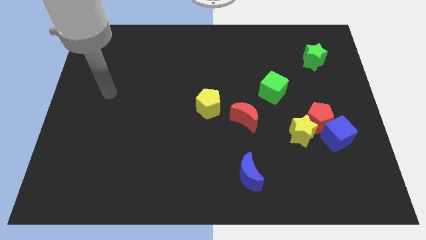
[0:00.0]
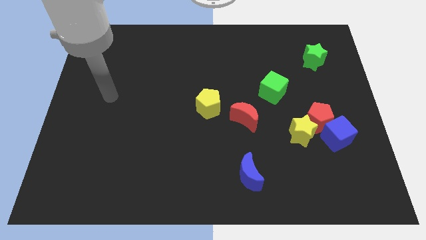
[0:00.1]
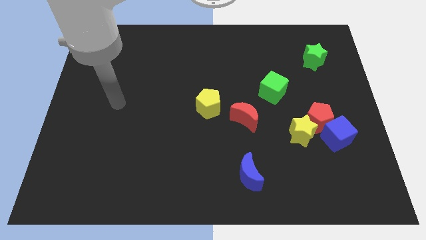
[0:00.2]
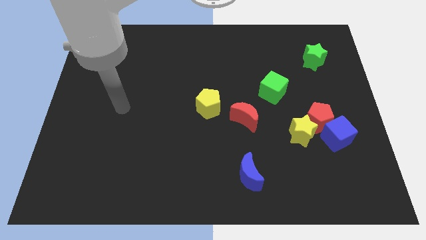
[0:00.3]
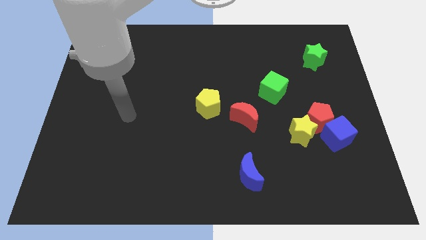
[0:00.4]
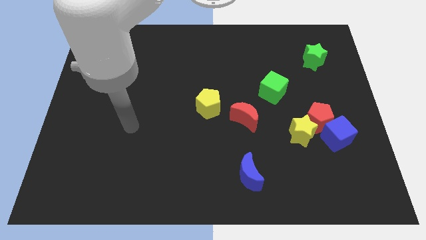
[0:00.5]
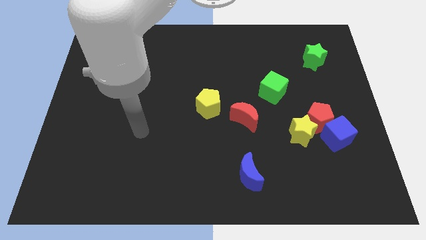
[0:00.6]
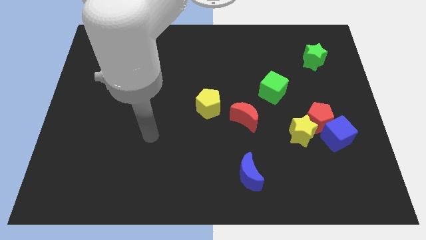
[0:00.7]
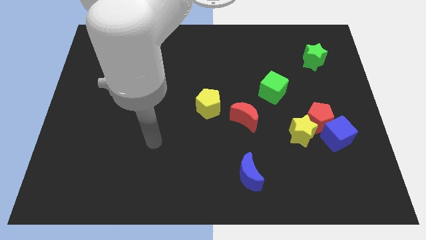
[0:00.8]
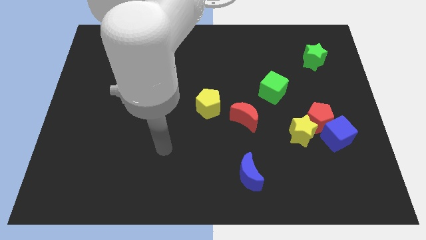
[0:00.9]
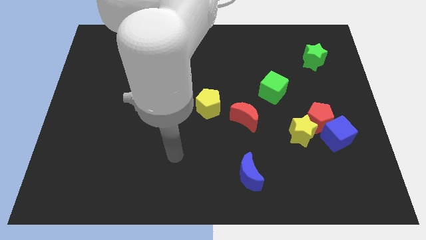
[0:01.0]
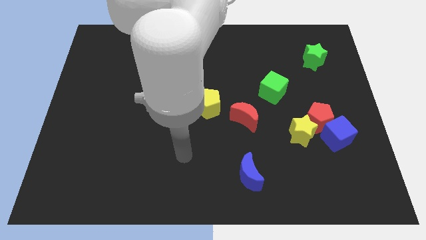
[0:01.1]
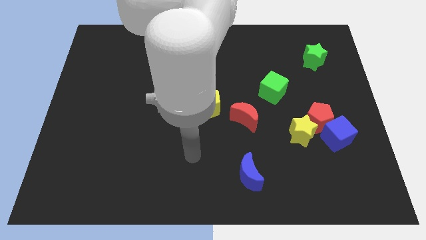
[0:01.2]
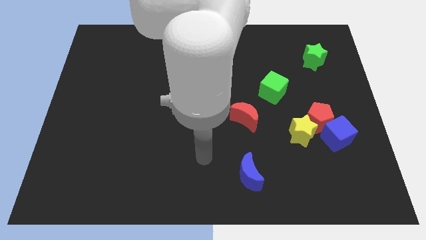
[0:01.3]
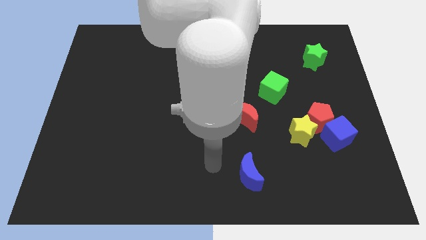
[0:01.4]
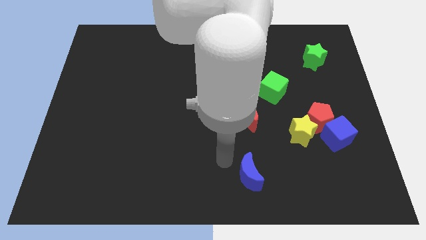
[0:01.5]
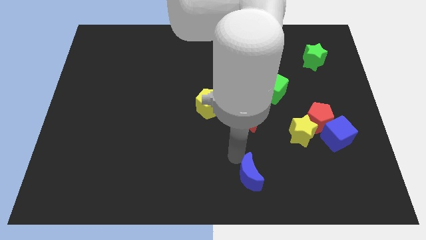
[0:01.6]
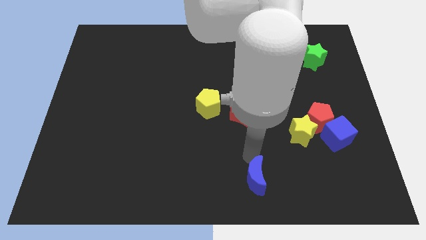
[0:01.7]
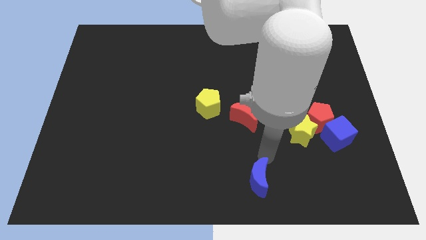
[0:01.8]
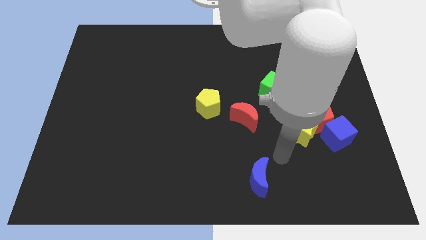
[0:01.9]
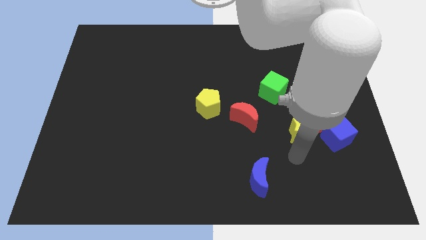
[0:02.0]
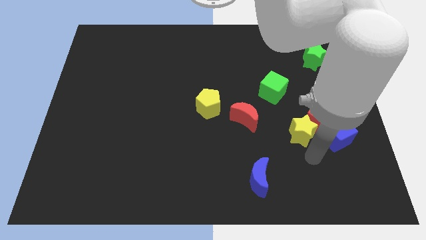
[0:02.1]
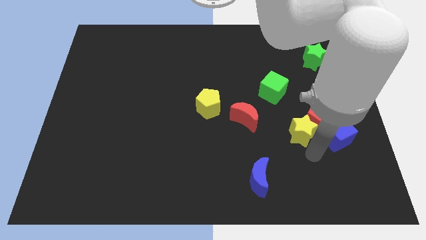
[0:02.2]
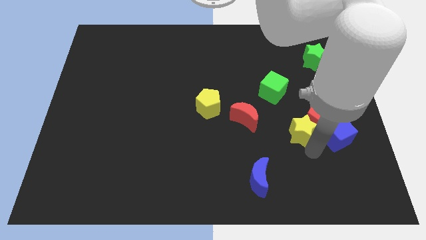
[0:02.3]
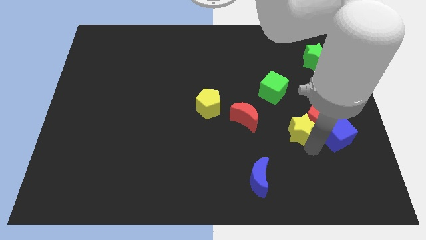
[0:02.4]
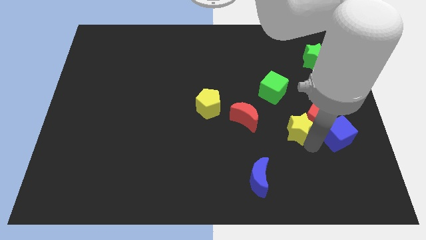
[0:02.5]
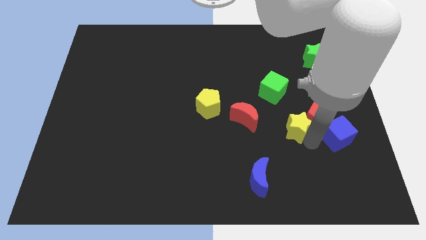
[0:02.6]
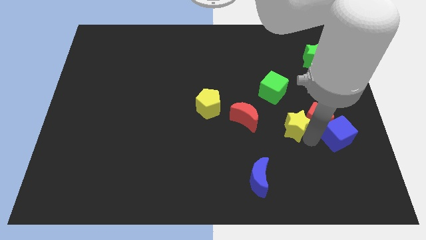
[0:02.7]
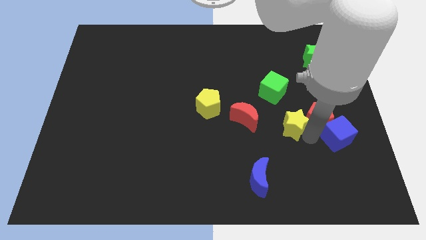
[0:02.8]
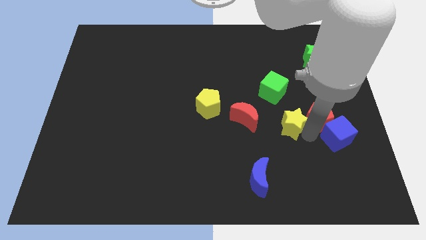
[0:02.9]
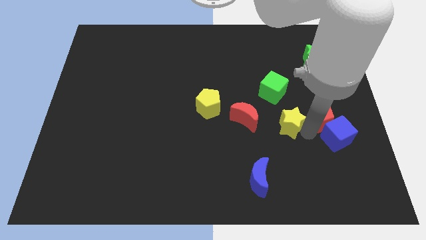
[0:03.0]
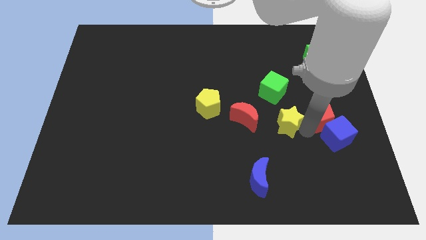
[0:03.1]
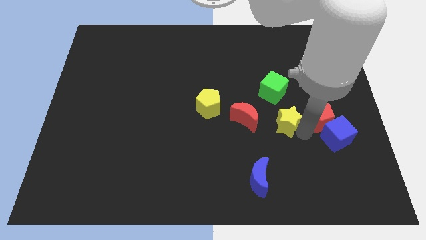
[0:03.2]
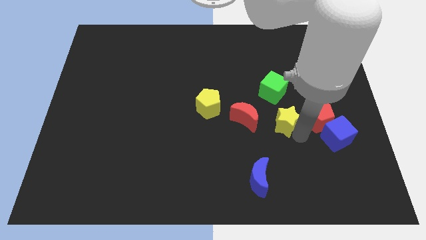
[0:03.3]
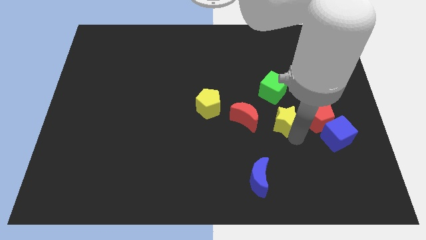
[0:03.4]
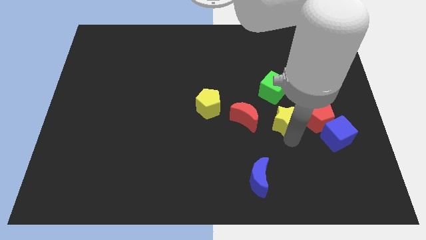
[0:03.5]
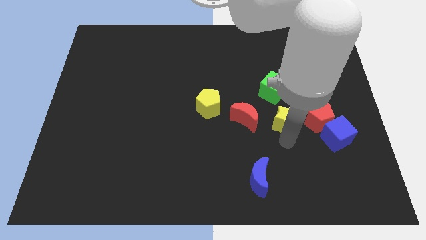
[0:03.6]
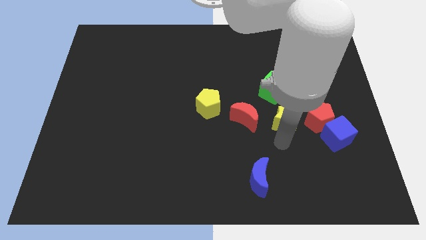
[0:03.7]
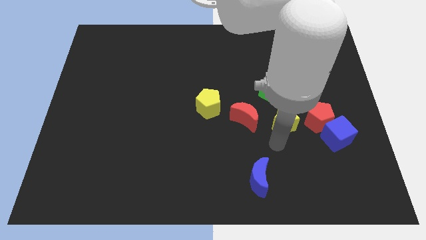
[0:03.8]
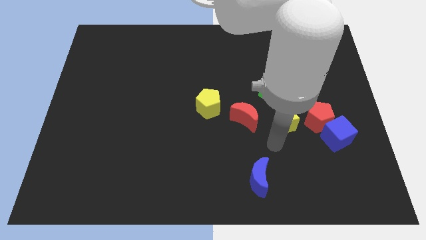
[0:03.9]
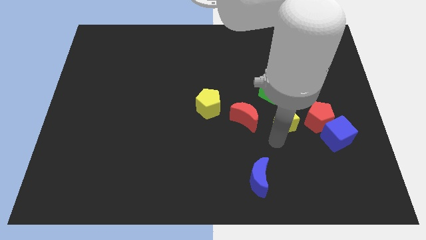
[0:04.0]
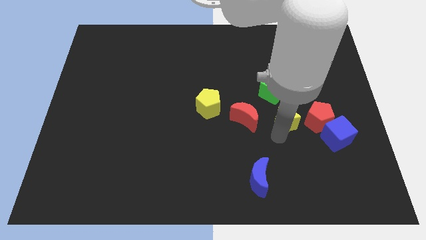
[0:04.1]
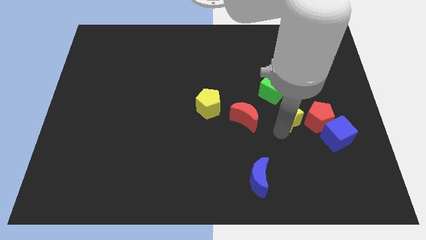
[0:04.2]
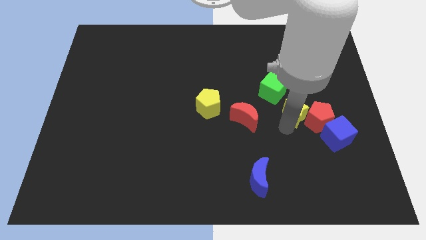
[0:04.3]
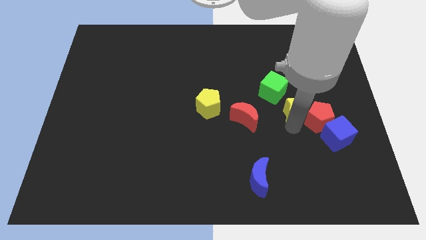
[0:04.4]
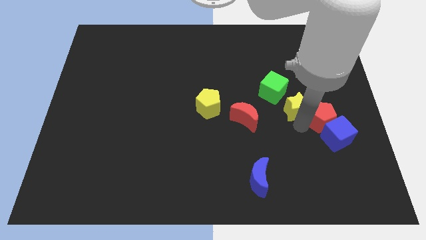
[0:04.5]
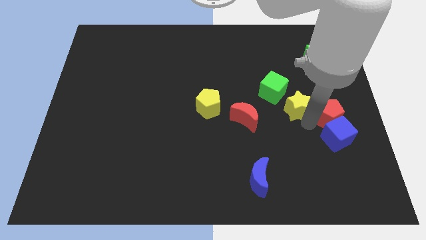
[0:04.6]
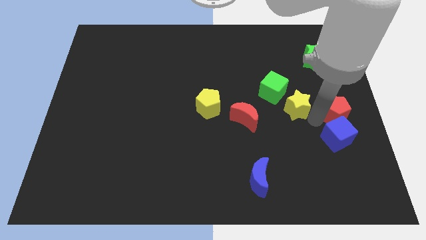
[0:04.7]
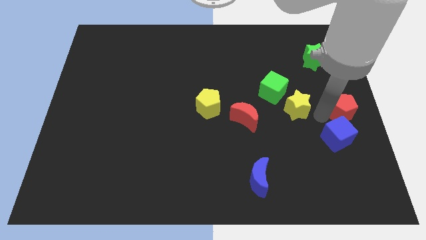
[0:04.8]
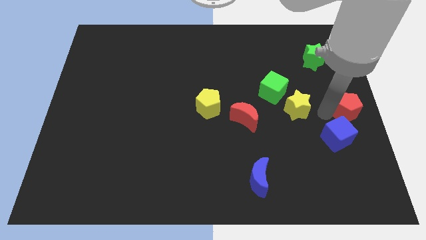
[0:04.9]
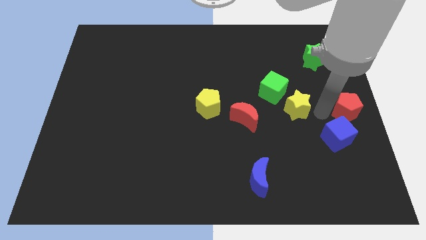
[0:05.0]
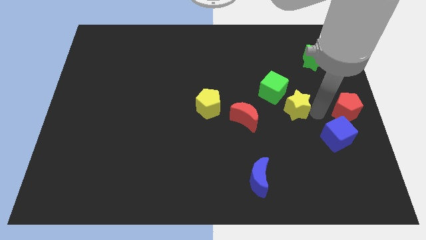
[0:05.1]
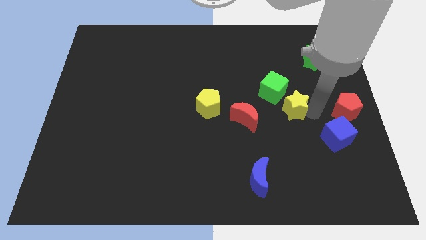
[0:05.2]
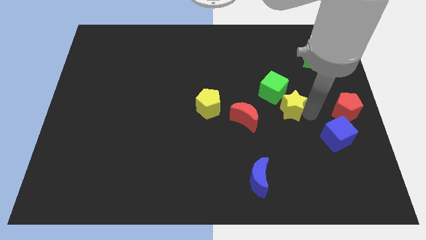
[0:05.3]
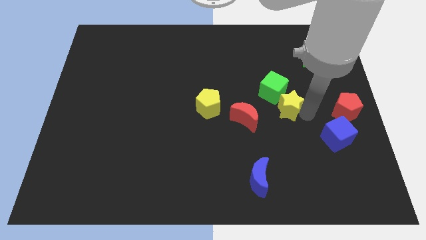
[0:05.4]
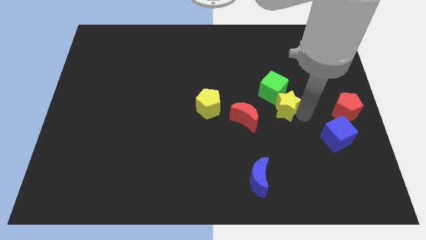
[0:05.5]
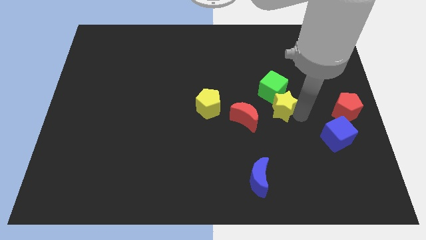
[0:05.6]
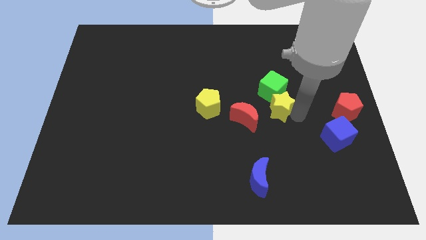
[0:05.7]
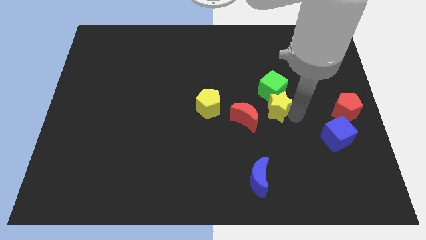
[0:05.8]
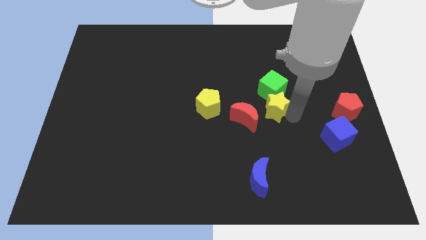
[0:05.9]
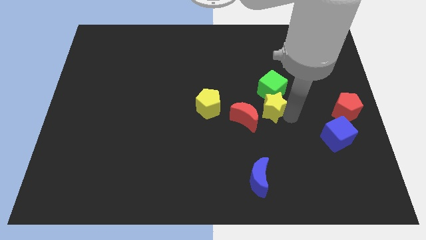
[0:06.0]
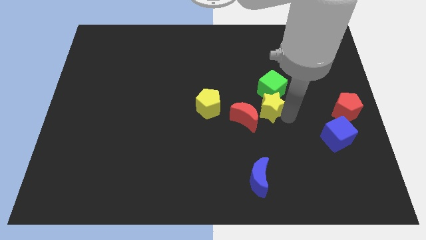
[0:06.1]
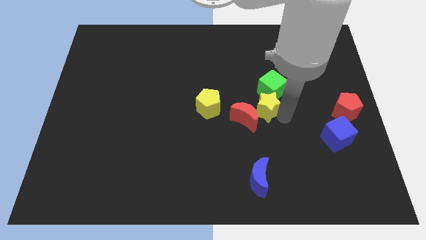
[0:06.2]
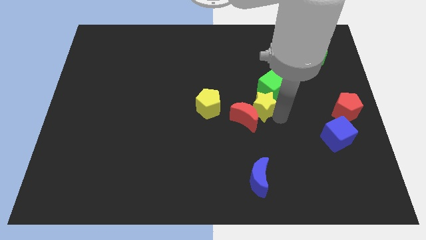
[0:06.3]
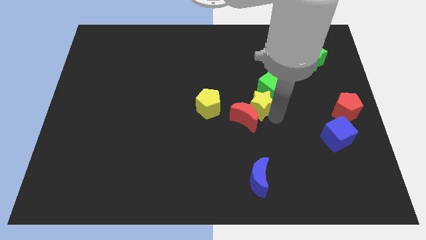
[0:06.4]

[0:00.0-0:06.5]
put the yellow star to the top of the red moon

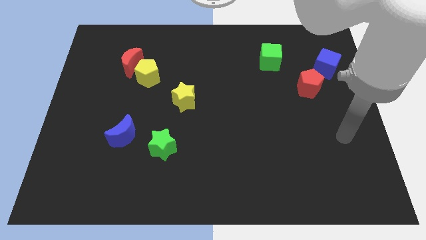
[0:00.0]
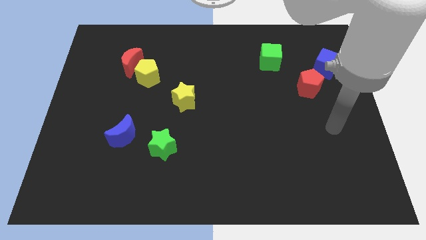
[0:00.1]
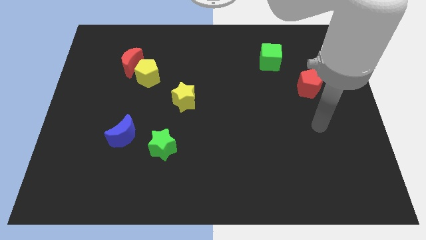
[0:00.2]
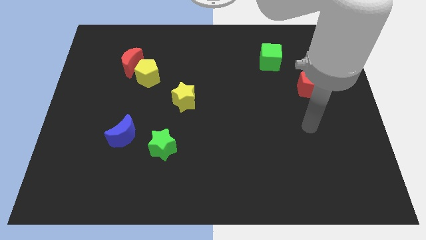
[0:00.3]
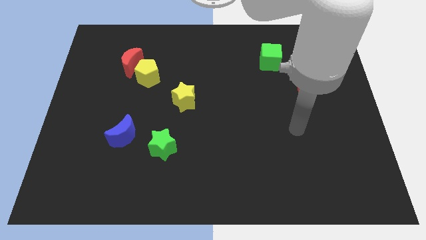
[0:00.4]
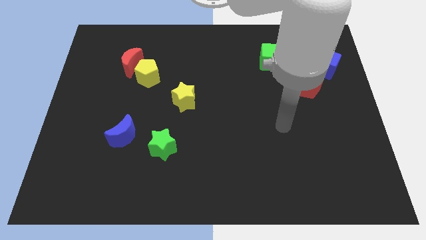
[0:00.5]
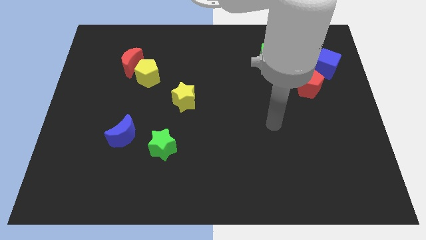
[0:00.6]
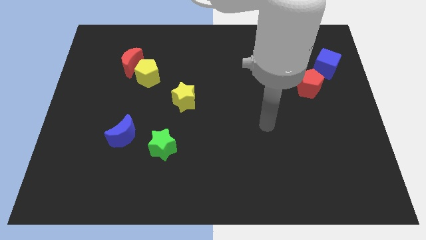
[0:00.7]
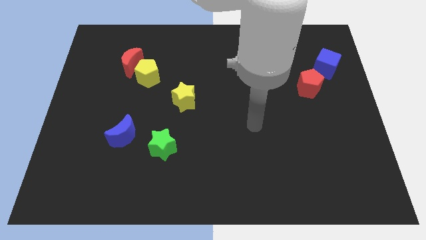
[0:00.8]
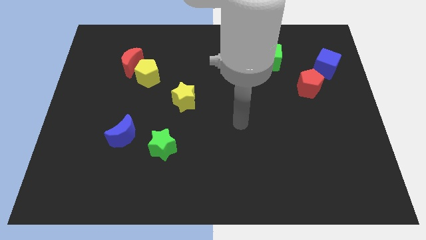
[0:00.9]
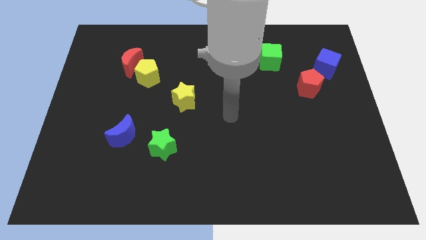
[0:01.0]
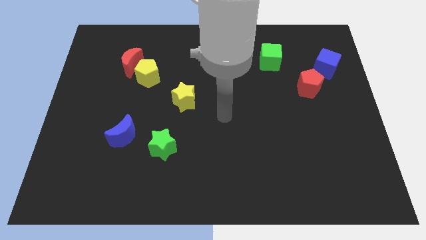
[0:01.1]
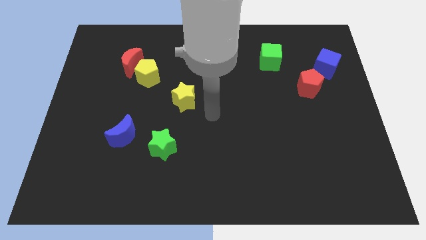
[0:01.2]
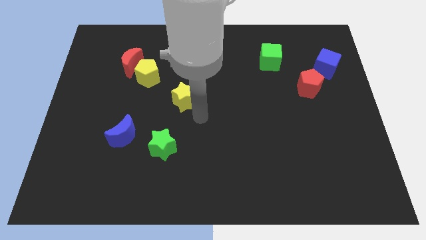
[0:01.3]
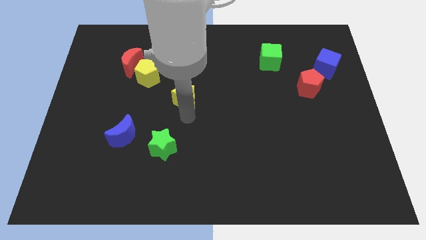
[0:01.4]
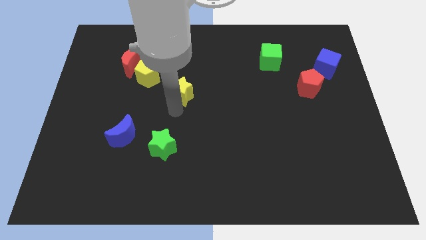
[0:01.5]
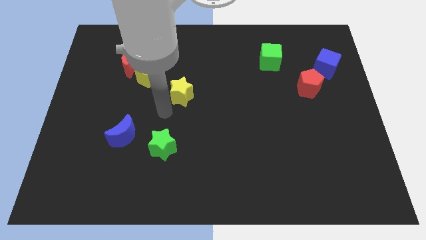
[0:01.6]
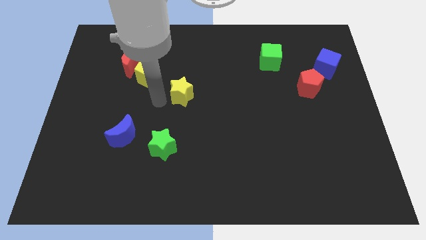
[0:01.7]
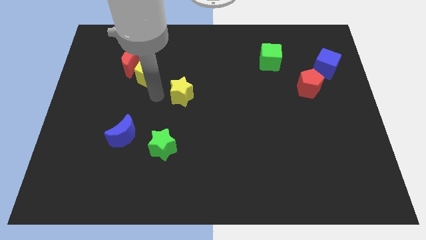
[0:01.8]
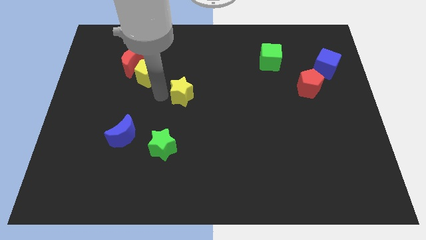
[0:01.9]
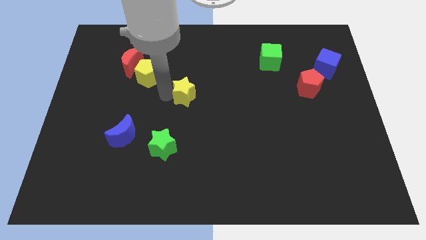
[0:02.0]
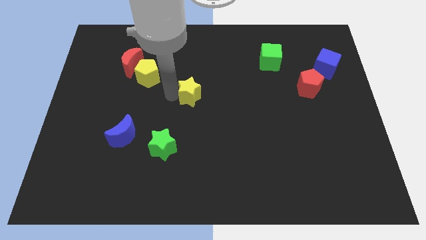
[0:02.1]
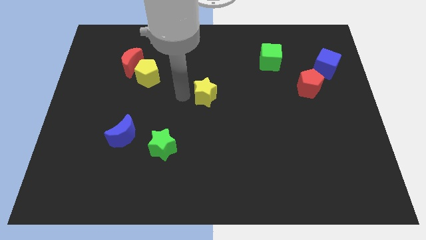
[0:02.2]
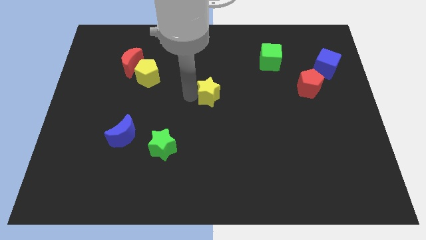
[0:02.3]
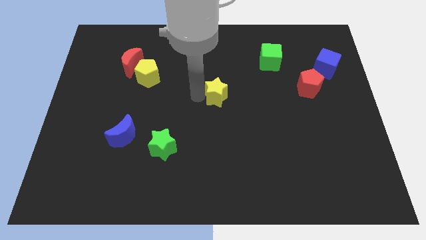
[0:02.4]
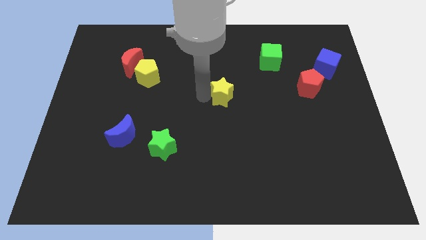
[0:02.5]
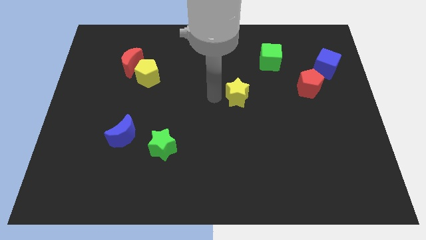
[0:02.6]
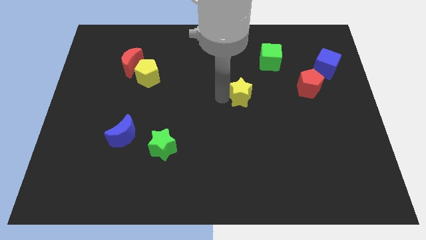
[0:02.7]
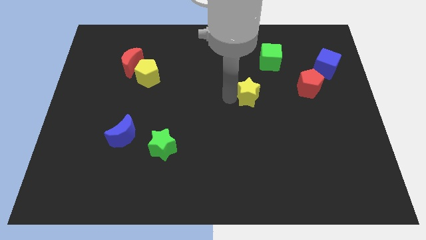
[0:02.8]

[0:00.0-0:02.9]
move the yellow star just left of the red pentagon
